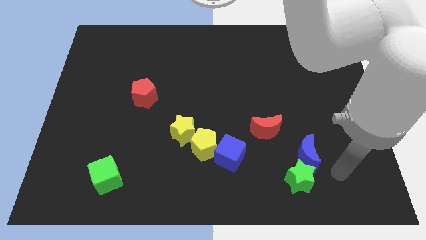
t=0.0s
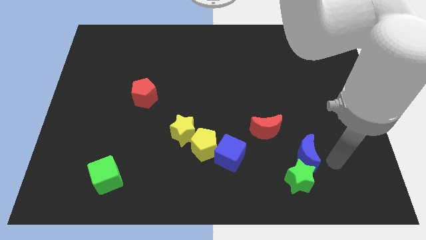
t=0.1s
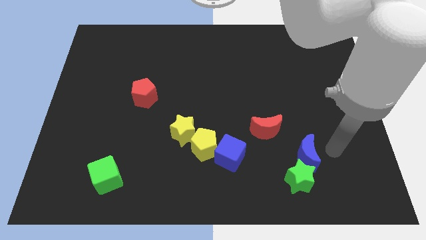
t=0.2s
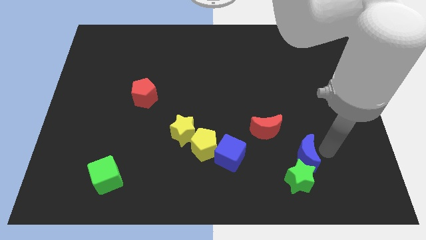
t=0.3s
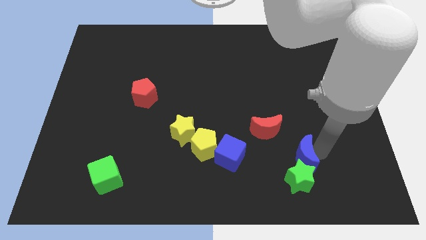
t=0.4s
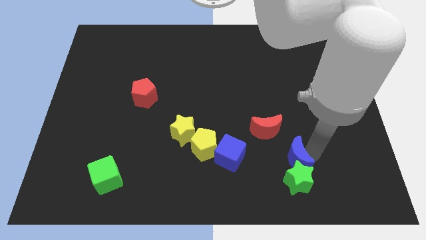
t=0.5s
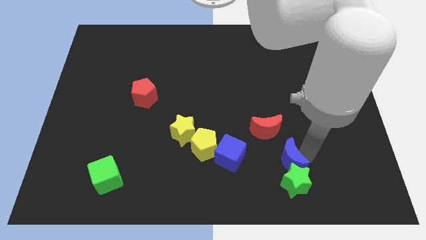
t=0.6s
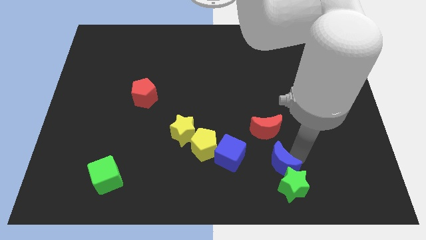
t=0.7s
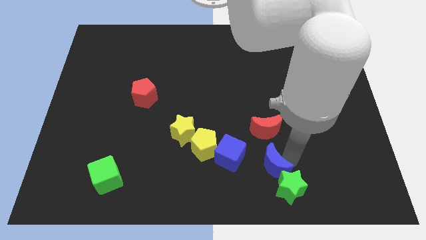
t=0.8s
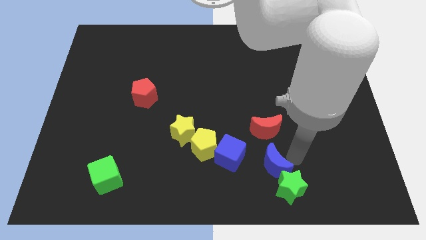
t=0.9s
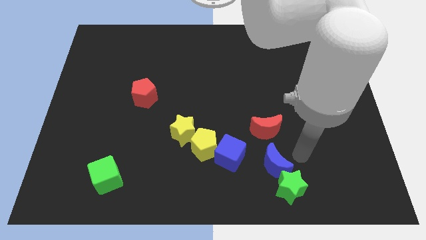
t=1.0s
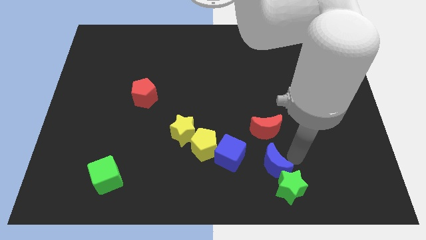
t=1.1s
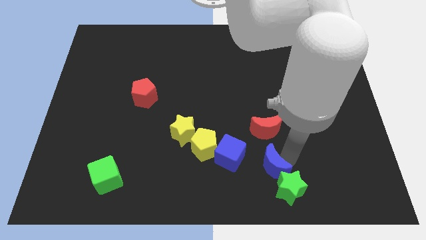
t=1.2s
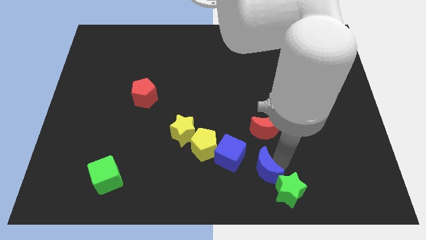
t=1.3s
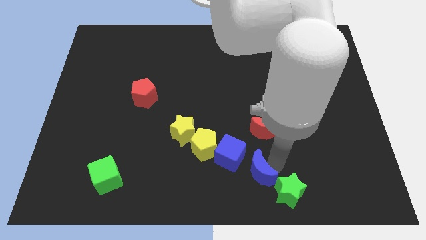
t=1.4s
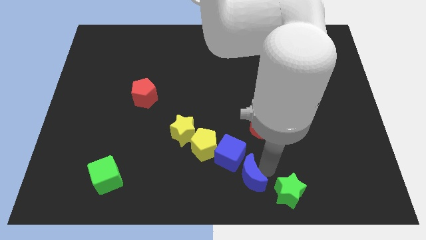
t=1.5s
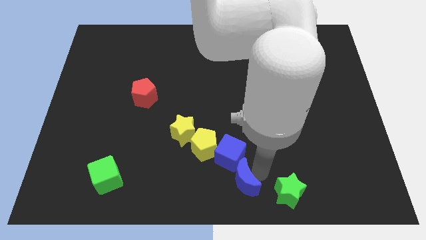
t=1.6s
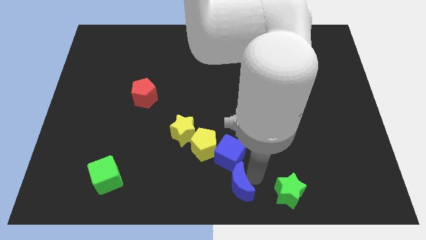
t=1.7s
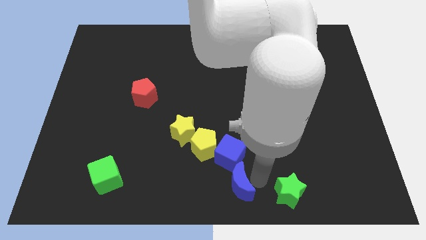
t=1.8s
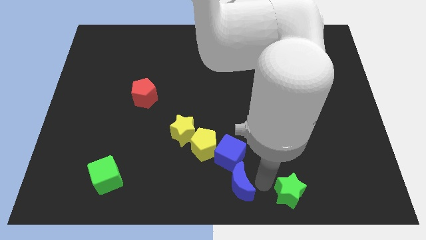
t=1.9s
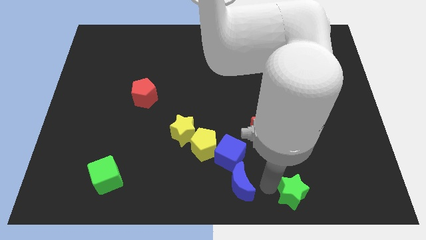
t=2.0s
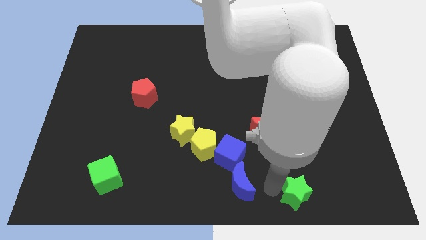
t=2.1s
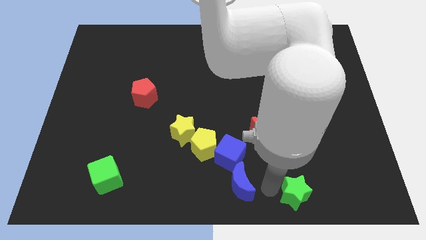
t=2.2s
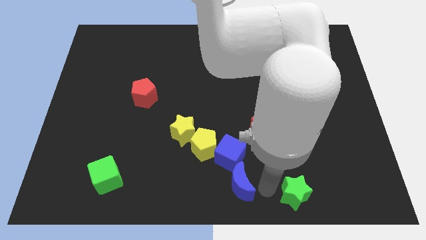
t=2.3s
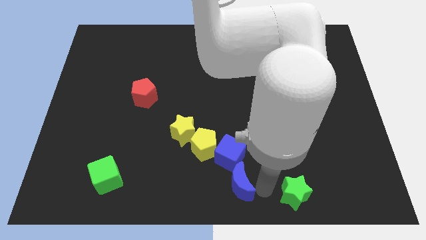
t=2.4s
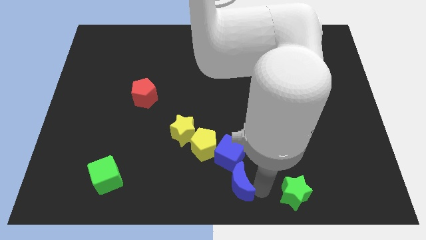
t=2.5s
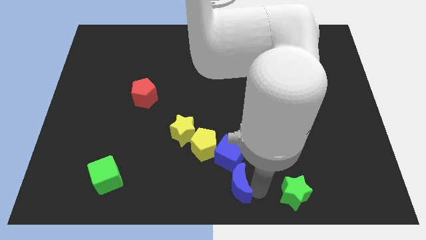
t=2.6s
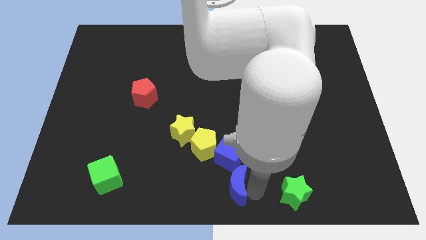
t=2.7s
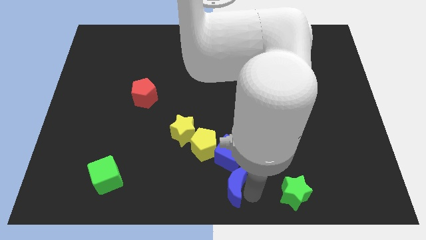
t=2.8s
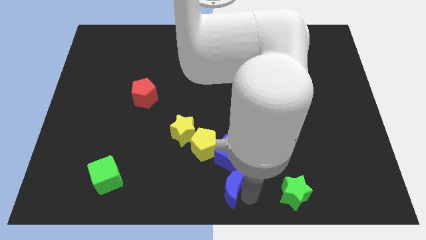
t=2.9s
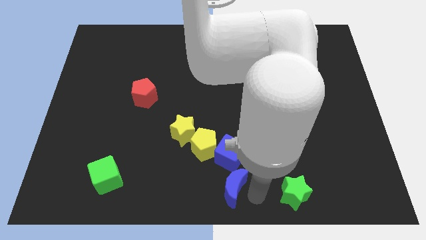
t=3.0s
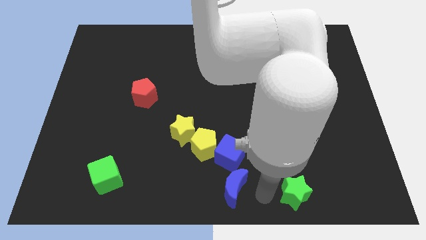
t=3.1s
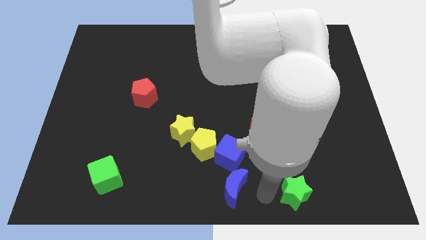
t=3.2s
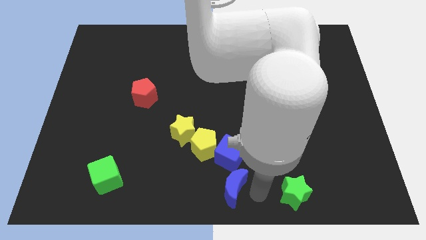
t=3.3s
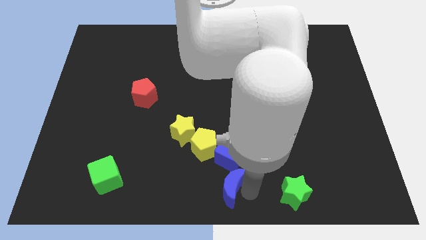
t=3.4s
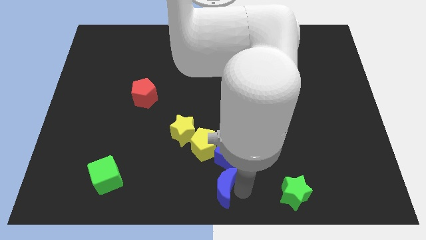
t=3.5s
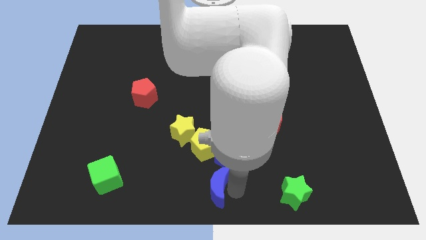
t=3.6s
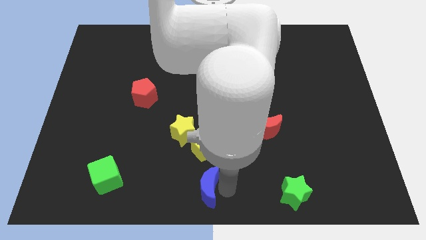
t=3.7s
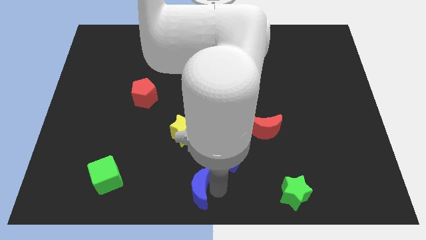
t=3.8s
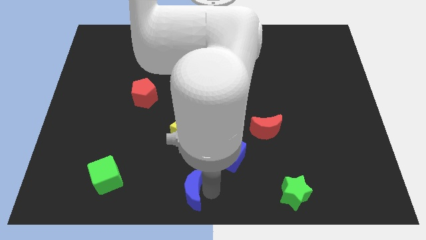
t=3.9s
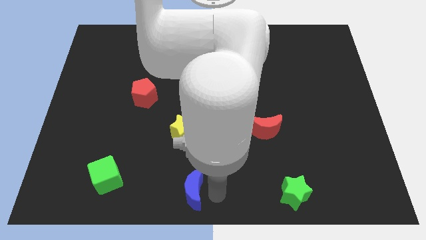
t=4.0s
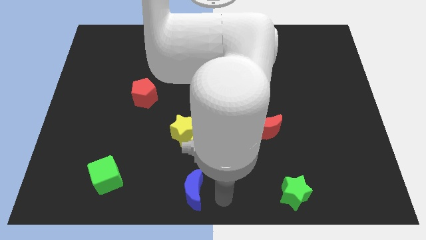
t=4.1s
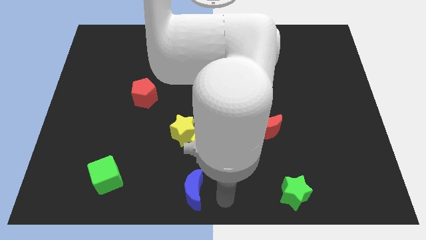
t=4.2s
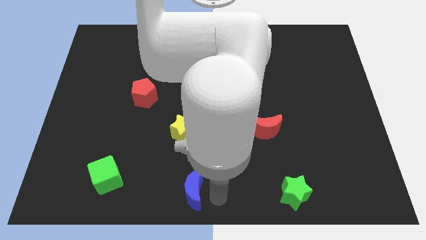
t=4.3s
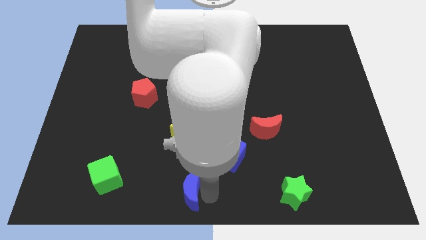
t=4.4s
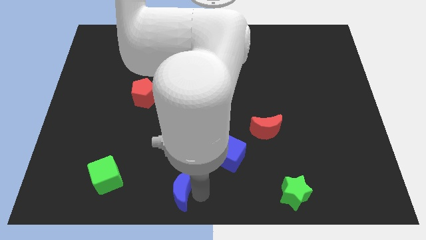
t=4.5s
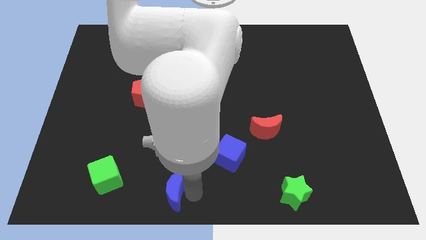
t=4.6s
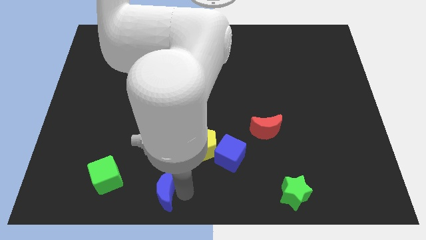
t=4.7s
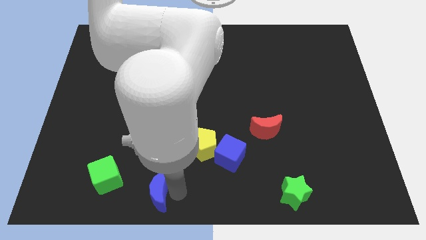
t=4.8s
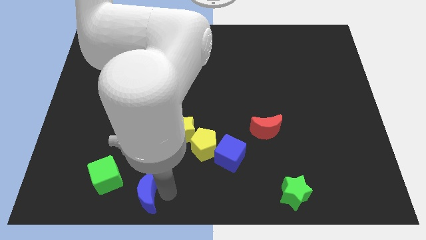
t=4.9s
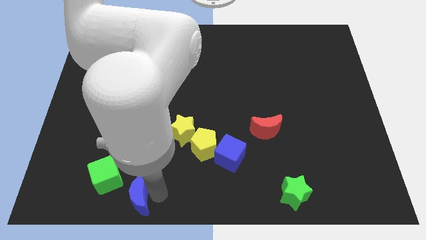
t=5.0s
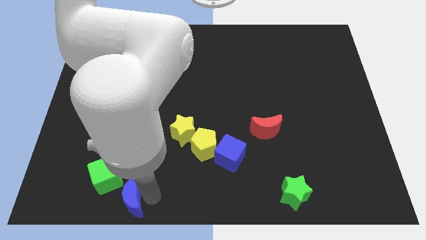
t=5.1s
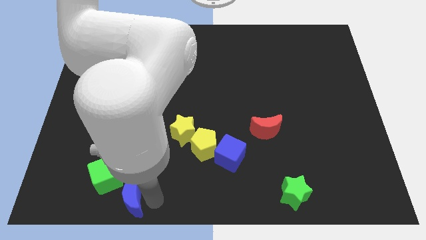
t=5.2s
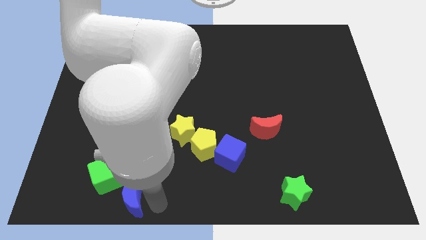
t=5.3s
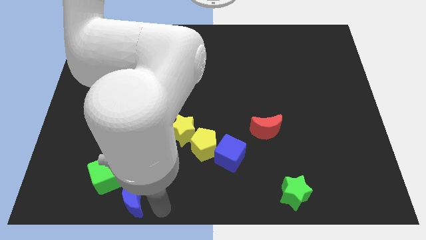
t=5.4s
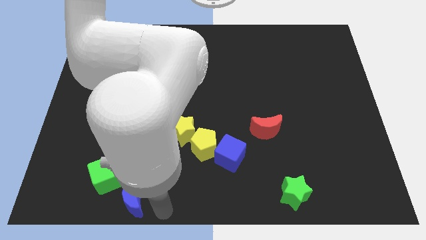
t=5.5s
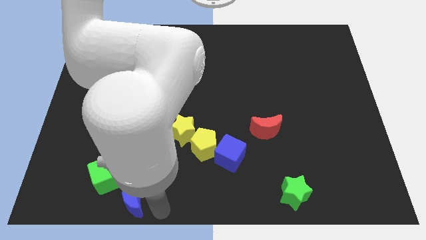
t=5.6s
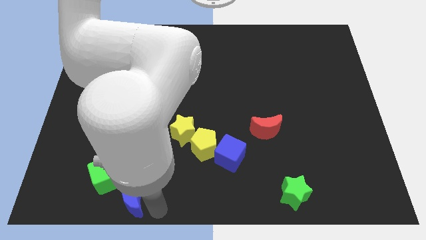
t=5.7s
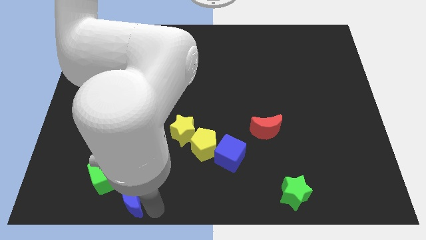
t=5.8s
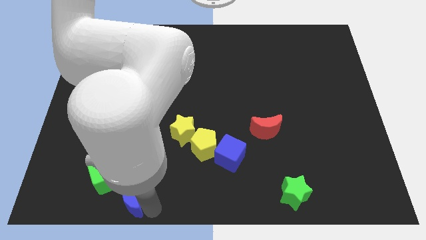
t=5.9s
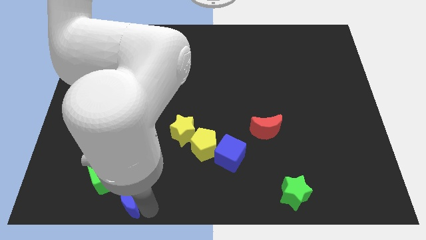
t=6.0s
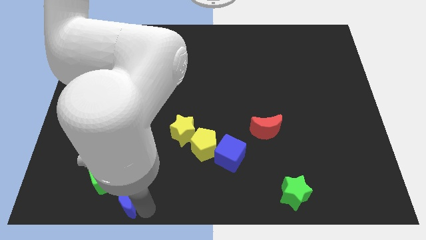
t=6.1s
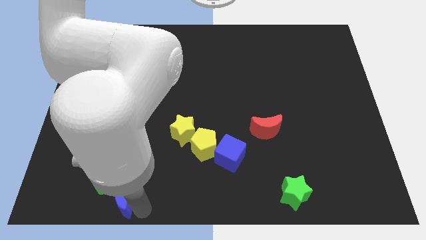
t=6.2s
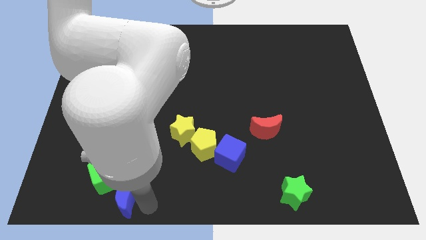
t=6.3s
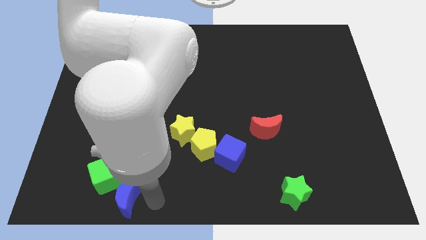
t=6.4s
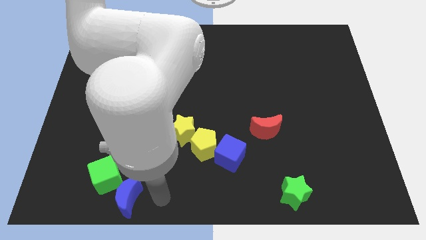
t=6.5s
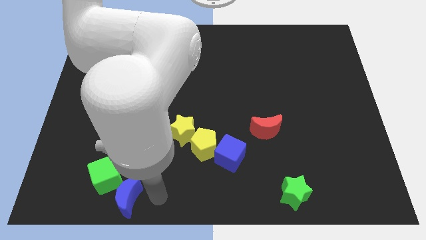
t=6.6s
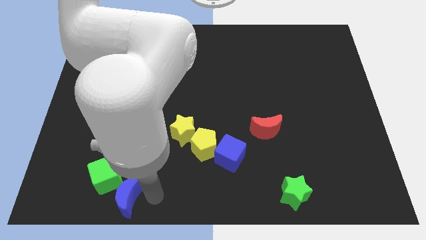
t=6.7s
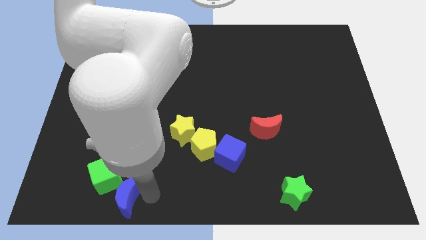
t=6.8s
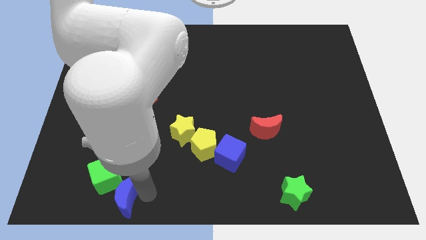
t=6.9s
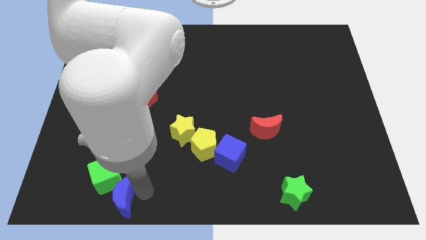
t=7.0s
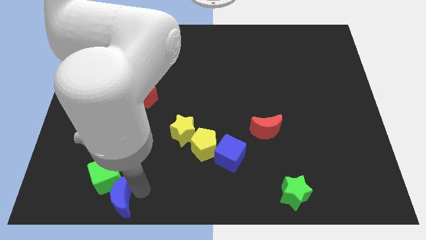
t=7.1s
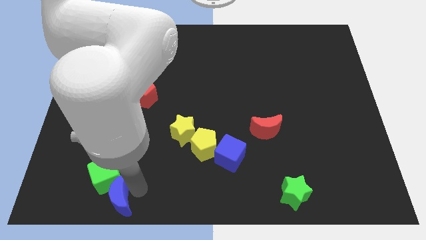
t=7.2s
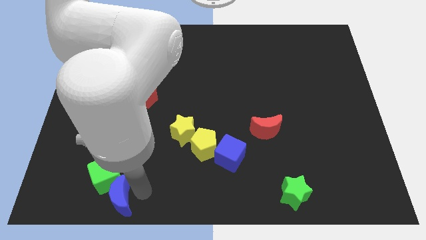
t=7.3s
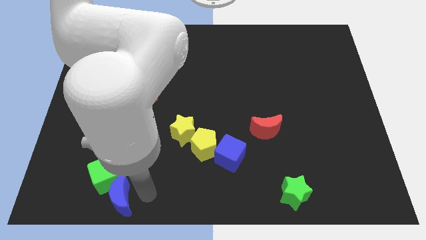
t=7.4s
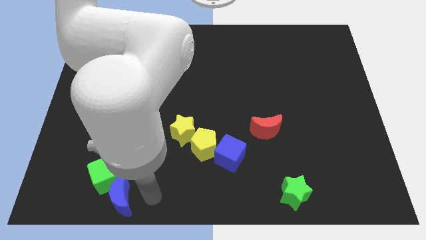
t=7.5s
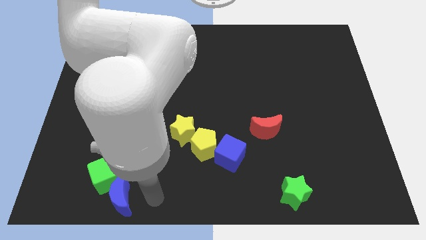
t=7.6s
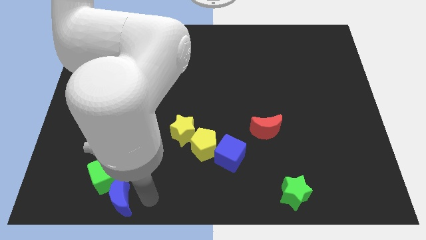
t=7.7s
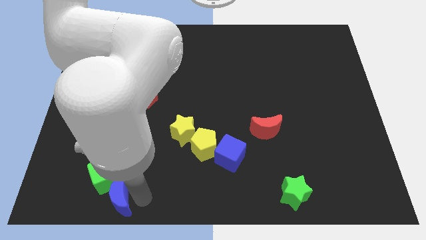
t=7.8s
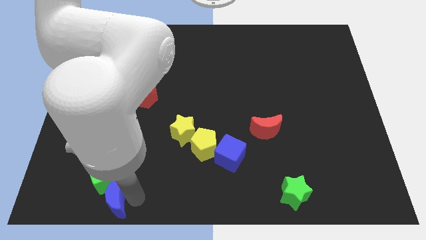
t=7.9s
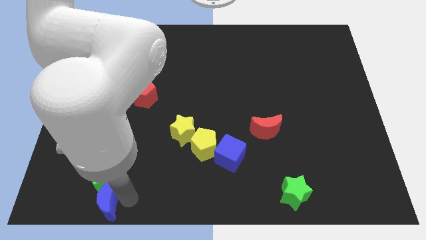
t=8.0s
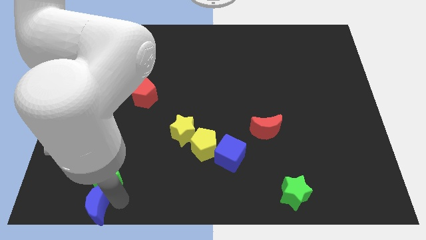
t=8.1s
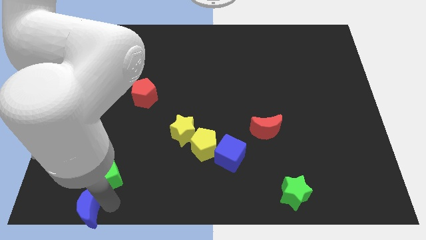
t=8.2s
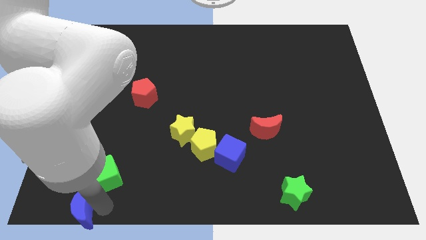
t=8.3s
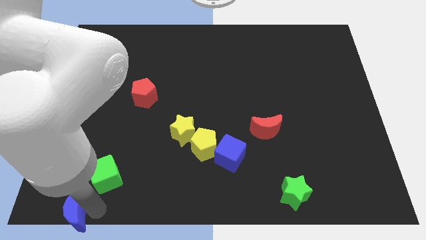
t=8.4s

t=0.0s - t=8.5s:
move the blue moon to the bottom left of the board
